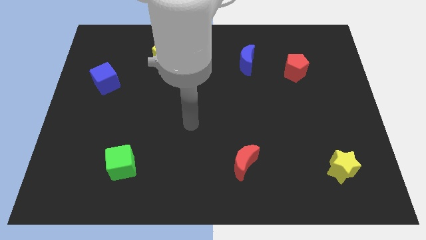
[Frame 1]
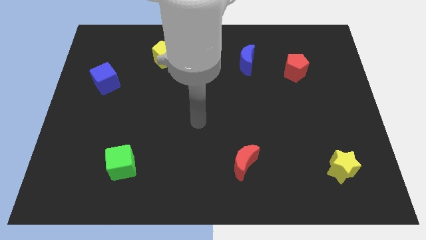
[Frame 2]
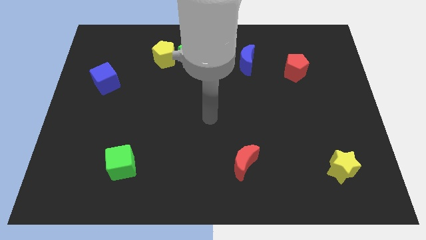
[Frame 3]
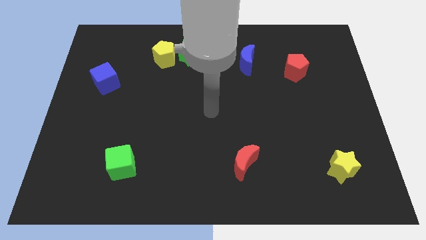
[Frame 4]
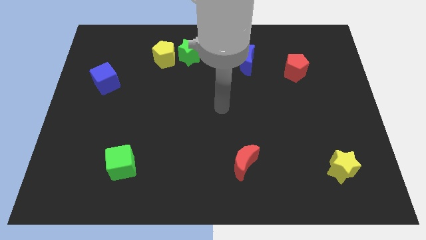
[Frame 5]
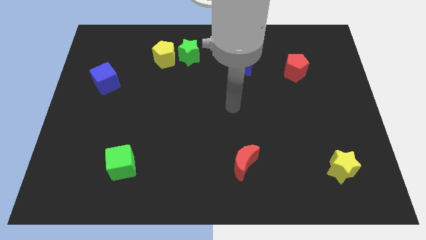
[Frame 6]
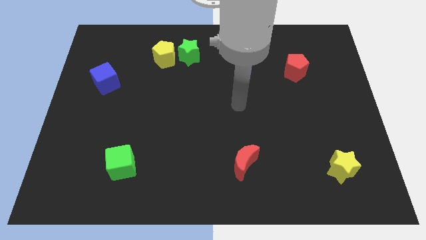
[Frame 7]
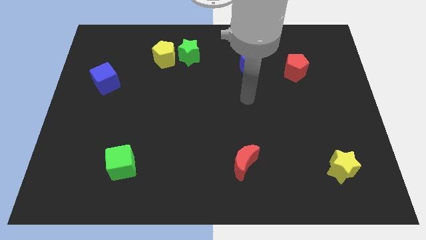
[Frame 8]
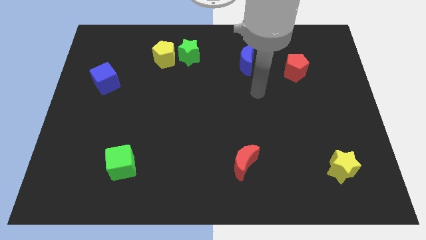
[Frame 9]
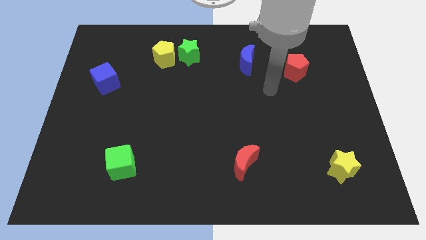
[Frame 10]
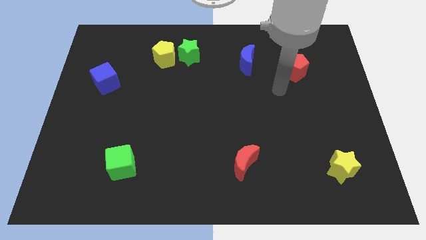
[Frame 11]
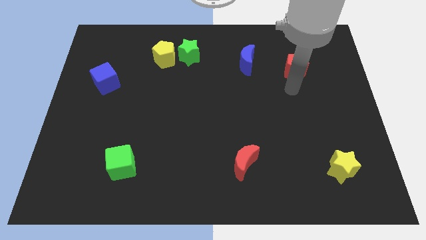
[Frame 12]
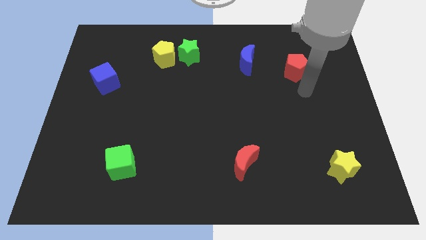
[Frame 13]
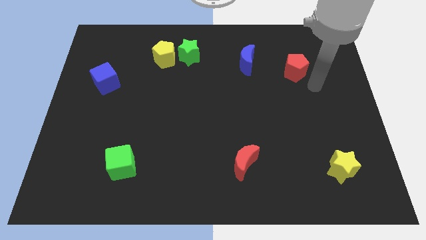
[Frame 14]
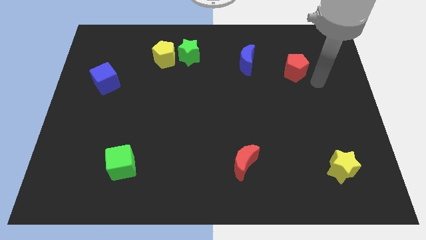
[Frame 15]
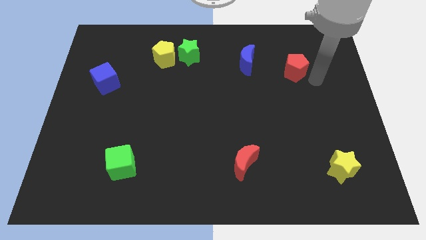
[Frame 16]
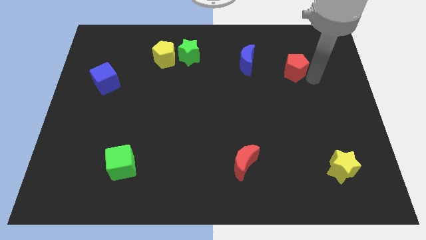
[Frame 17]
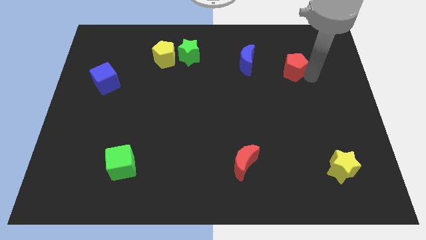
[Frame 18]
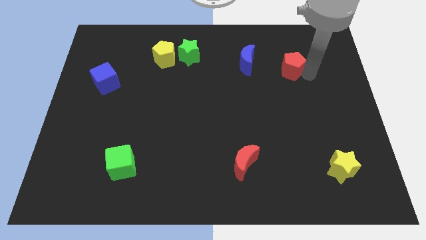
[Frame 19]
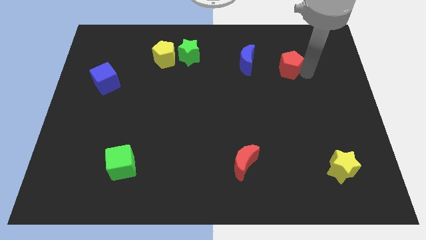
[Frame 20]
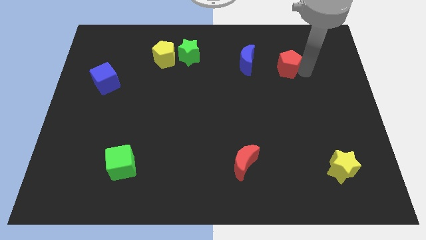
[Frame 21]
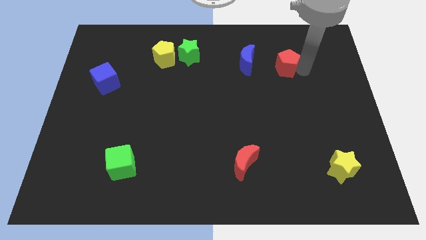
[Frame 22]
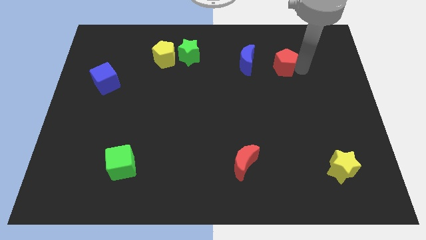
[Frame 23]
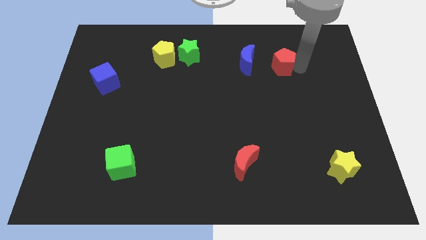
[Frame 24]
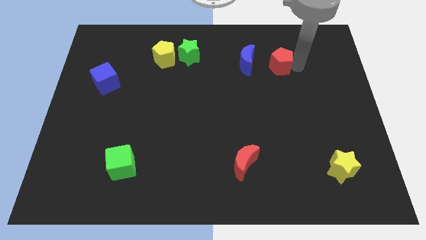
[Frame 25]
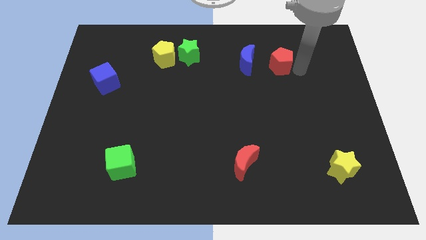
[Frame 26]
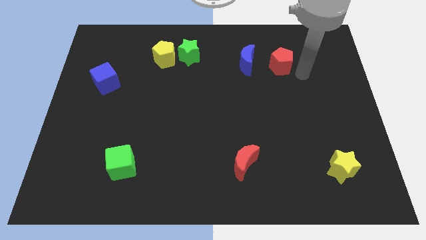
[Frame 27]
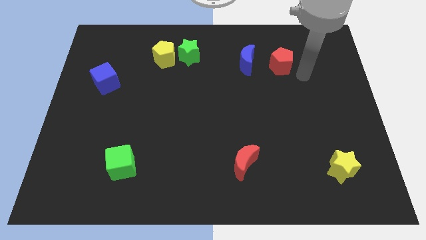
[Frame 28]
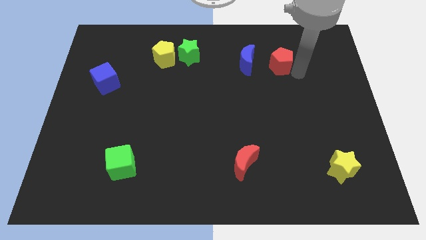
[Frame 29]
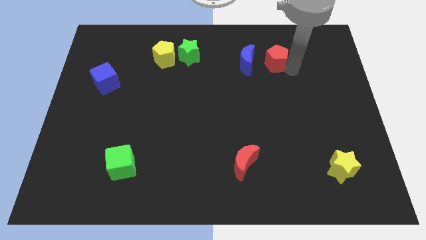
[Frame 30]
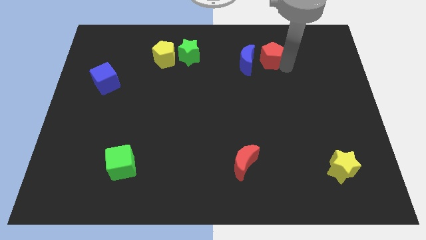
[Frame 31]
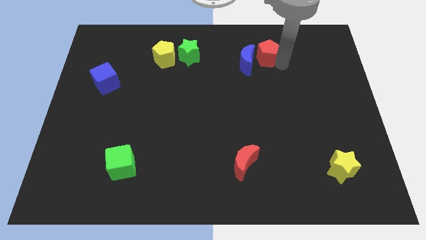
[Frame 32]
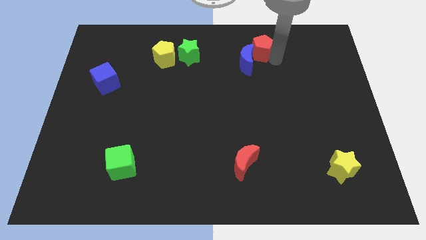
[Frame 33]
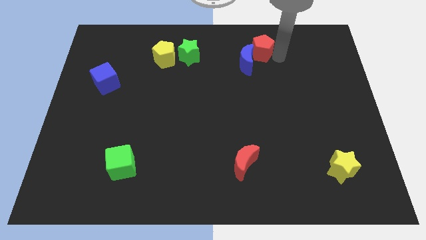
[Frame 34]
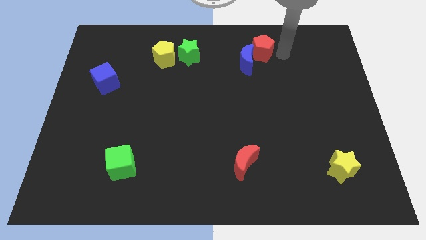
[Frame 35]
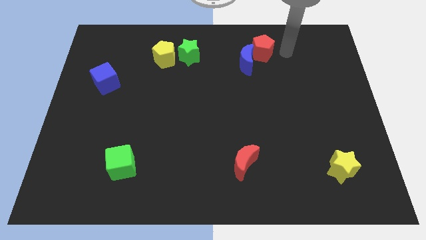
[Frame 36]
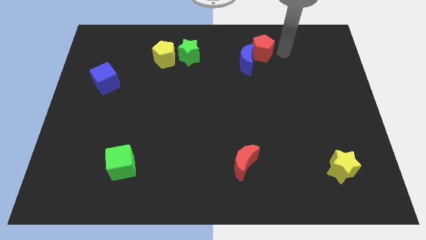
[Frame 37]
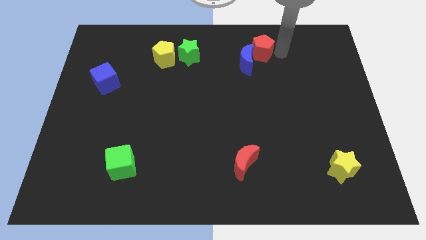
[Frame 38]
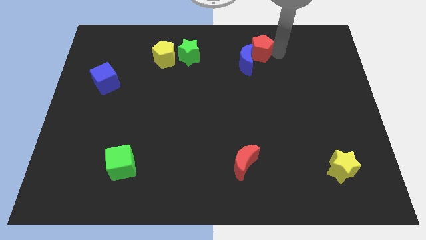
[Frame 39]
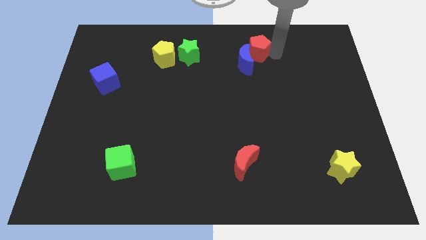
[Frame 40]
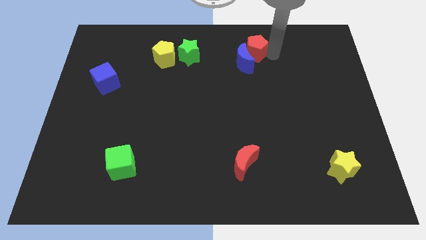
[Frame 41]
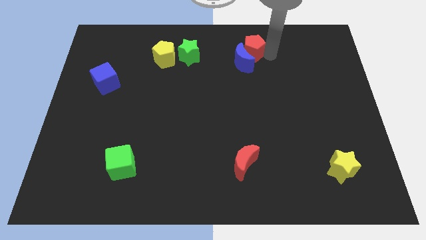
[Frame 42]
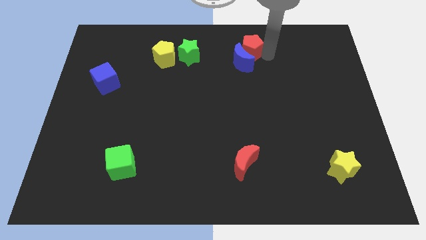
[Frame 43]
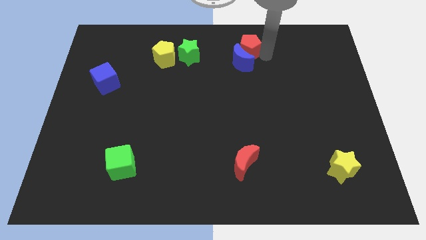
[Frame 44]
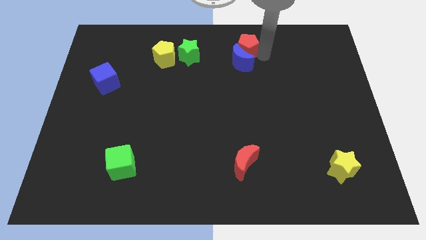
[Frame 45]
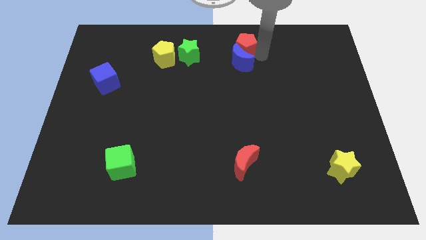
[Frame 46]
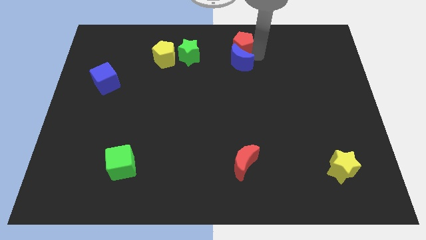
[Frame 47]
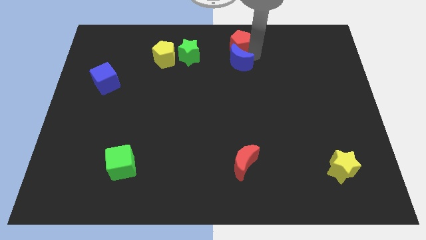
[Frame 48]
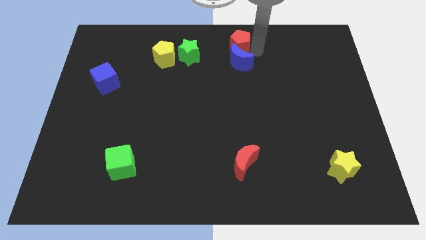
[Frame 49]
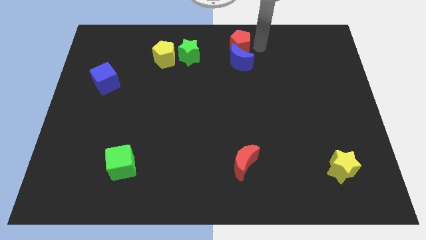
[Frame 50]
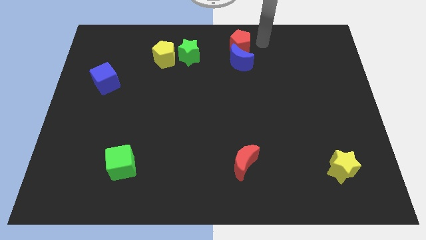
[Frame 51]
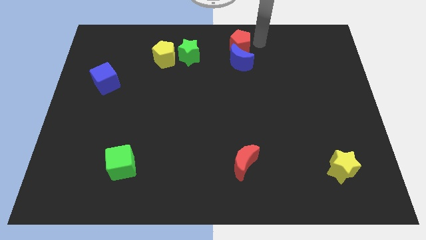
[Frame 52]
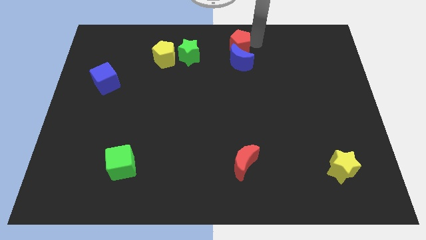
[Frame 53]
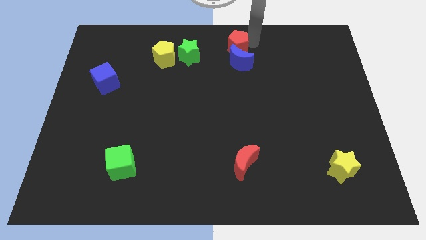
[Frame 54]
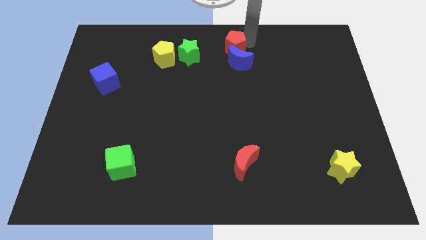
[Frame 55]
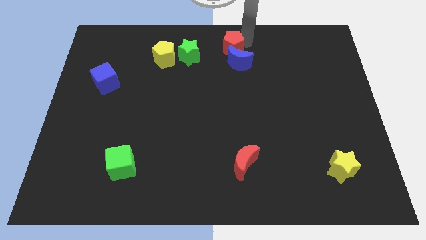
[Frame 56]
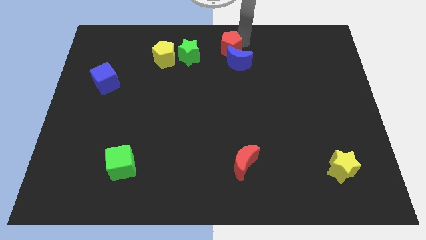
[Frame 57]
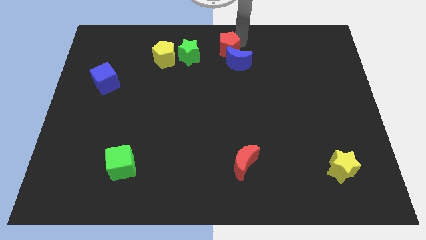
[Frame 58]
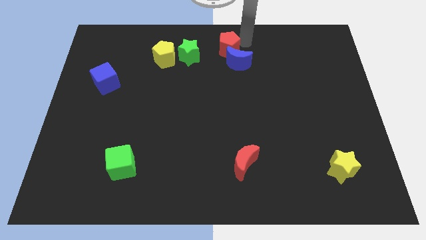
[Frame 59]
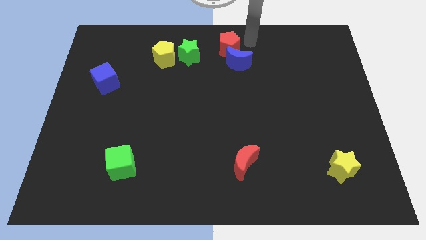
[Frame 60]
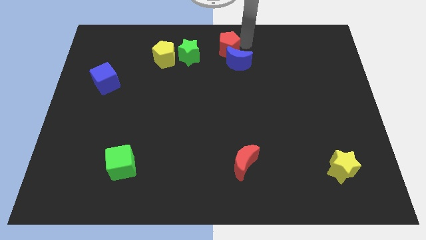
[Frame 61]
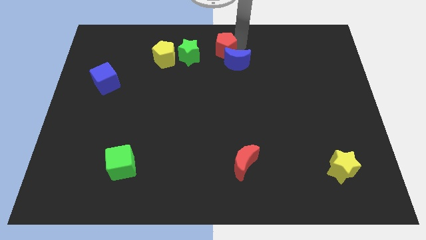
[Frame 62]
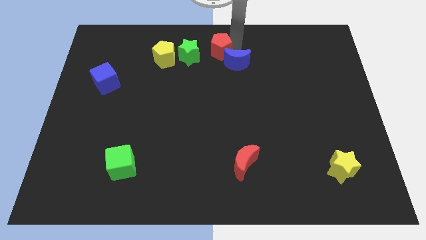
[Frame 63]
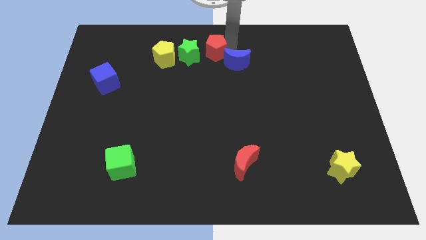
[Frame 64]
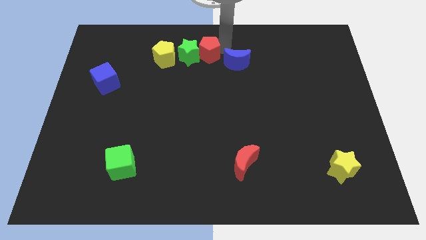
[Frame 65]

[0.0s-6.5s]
slide the red pentagon close to the green star

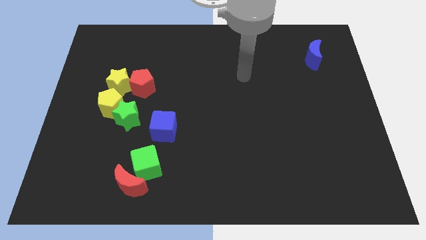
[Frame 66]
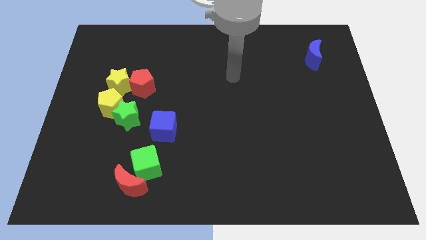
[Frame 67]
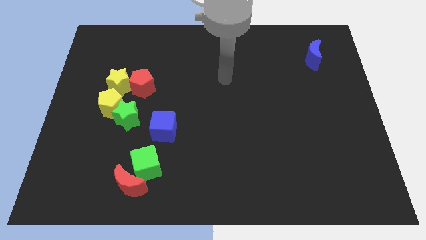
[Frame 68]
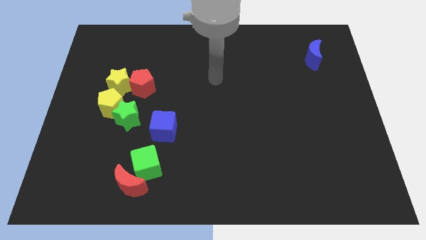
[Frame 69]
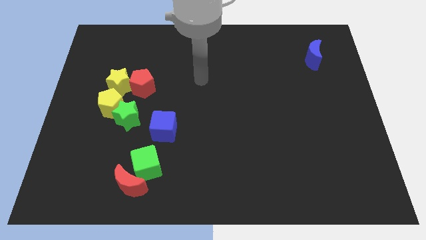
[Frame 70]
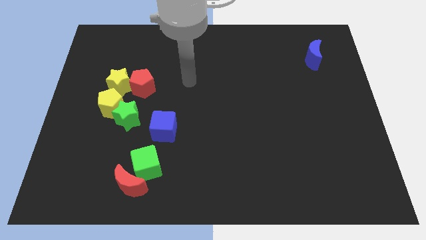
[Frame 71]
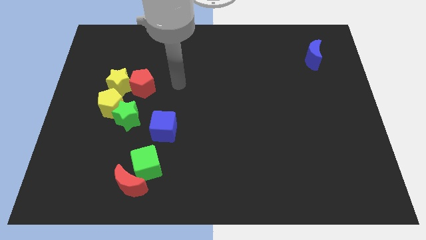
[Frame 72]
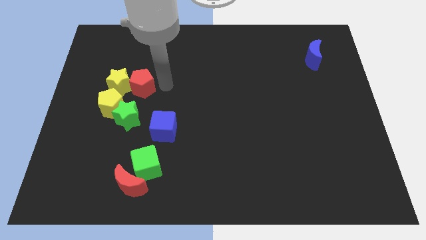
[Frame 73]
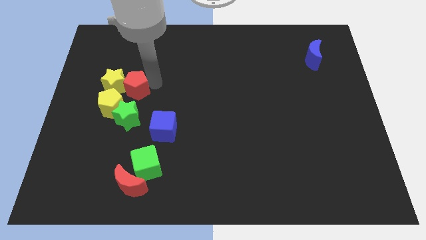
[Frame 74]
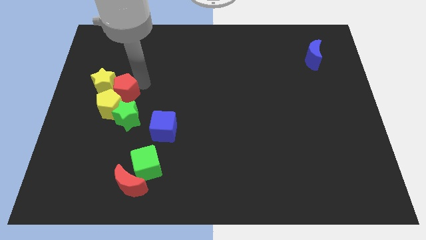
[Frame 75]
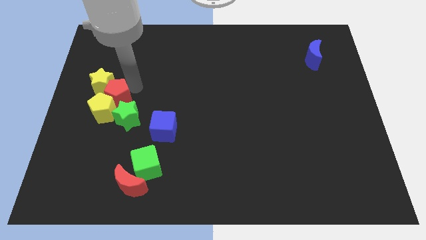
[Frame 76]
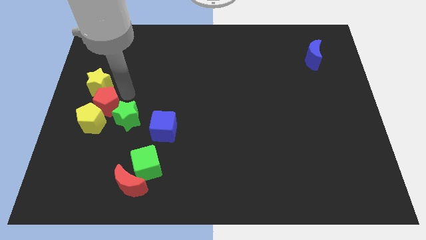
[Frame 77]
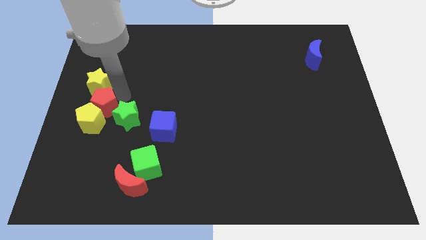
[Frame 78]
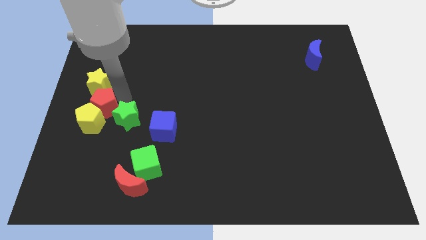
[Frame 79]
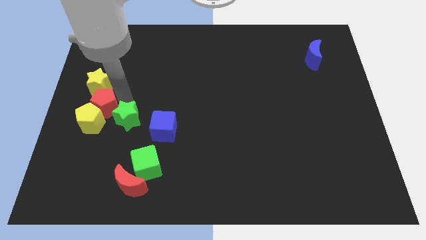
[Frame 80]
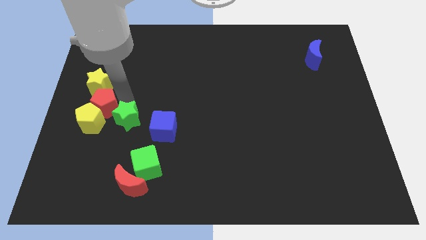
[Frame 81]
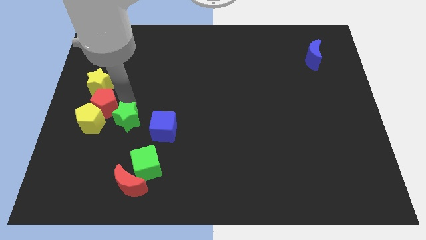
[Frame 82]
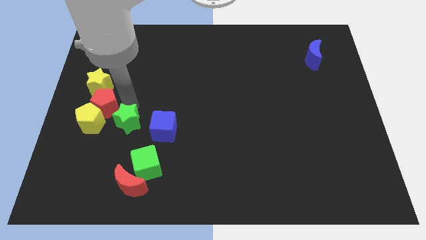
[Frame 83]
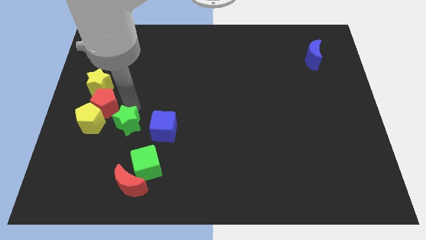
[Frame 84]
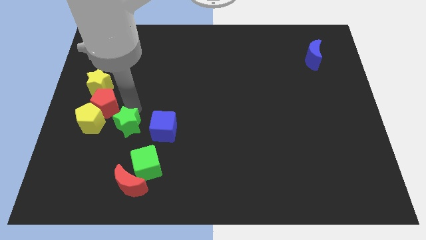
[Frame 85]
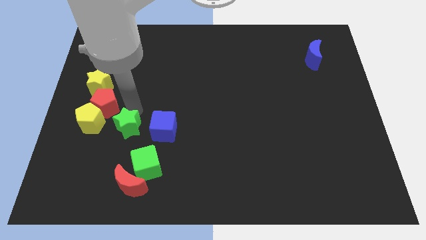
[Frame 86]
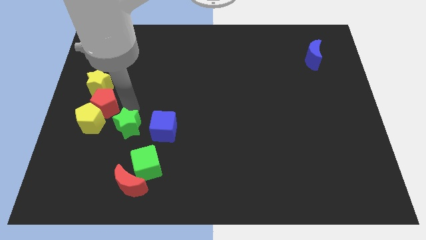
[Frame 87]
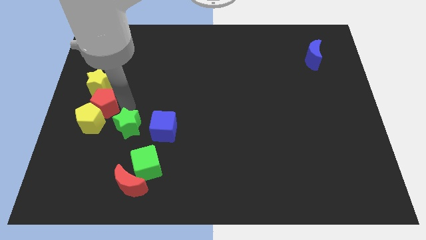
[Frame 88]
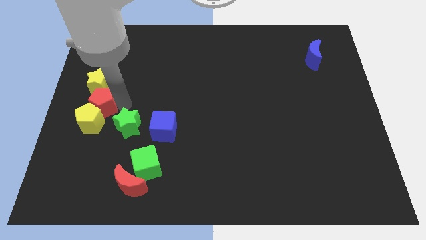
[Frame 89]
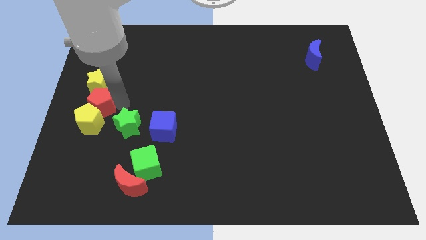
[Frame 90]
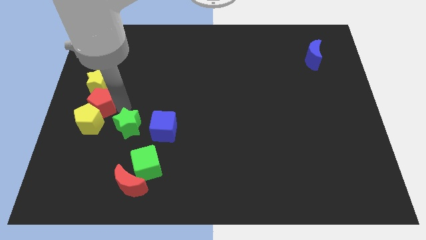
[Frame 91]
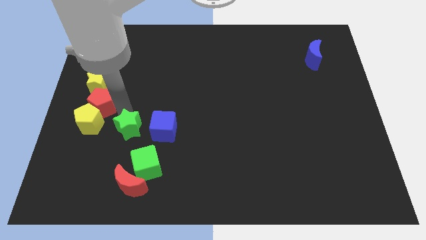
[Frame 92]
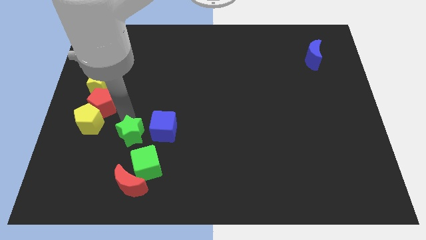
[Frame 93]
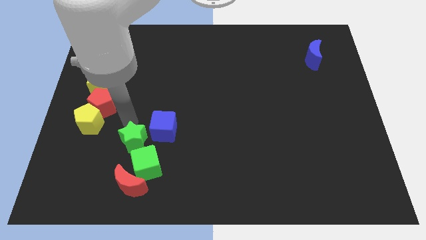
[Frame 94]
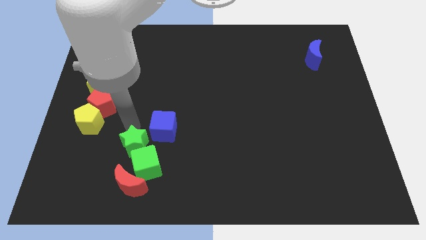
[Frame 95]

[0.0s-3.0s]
move the green star next to the green cube
